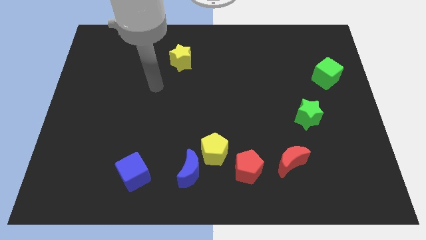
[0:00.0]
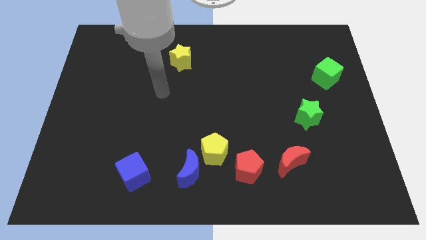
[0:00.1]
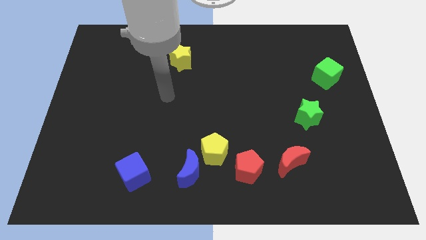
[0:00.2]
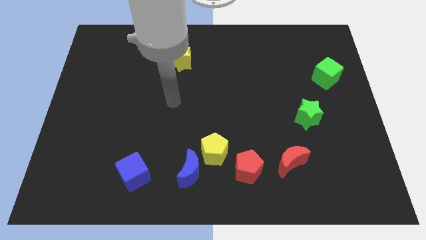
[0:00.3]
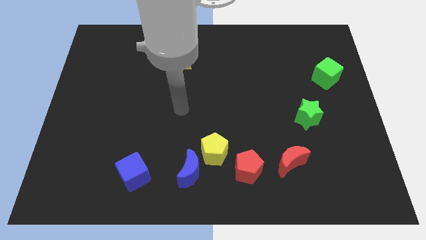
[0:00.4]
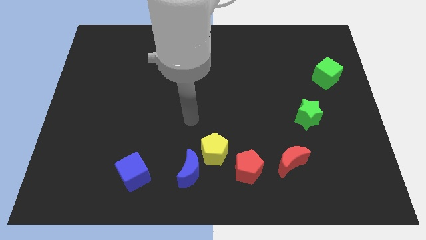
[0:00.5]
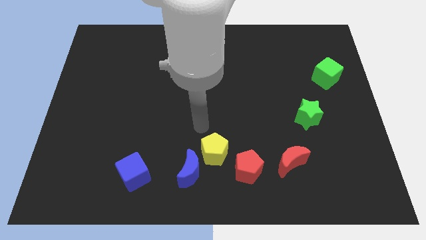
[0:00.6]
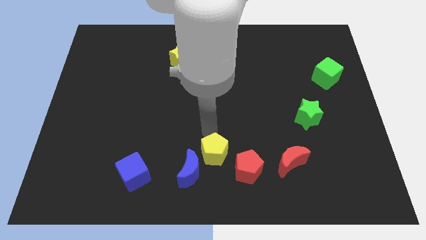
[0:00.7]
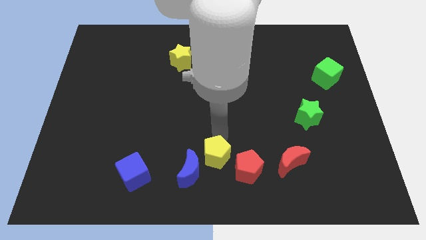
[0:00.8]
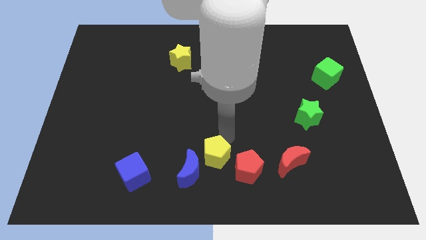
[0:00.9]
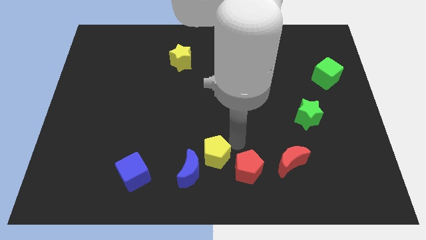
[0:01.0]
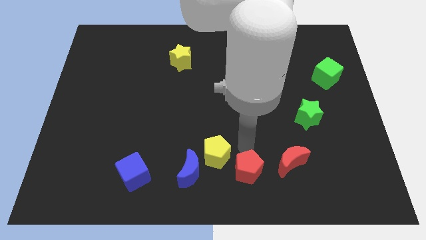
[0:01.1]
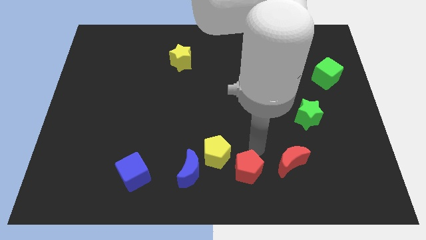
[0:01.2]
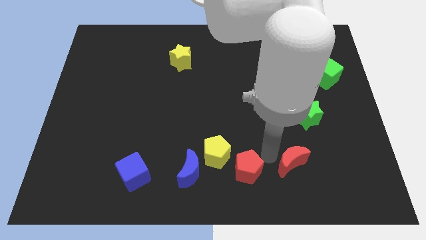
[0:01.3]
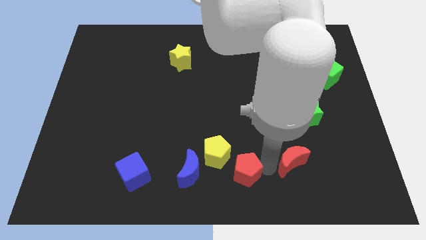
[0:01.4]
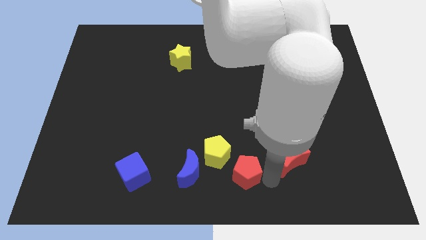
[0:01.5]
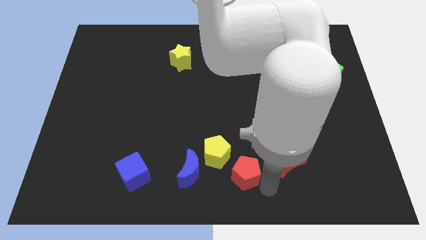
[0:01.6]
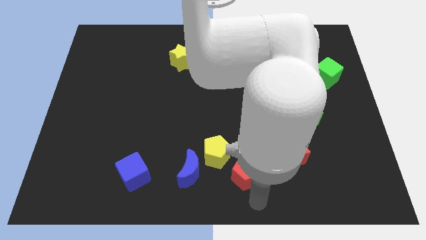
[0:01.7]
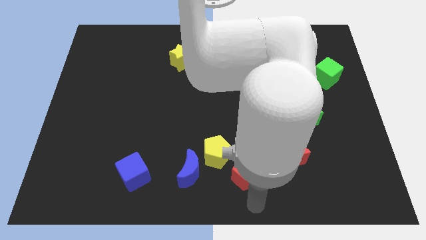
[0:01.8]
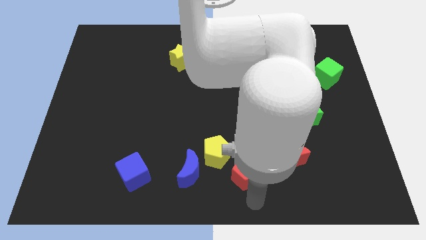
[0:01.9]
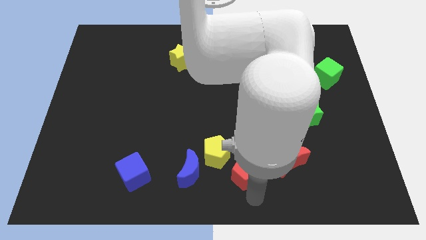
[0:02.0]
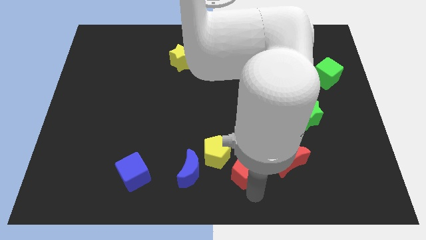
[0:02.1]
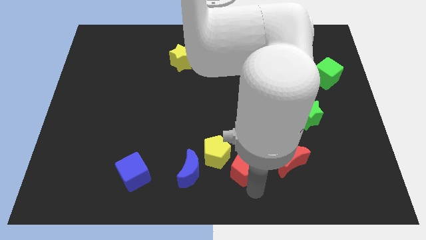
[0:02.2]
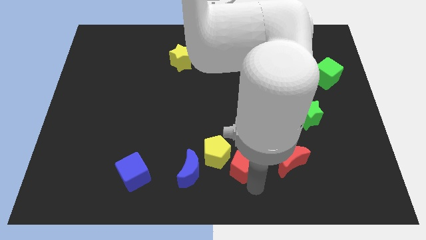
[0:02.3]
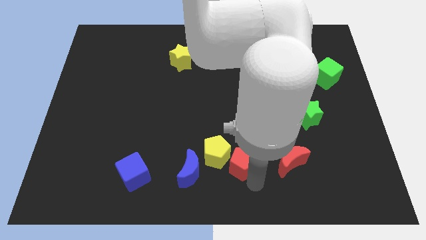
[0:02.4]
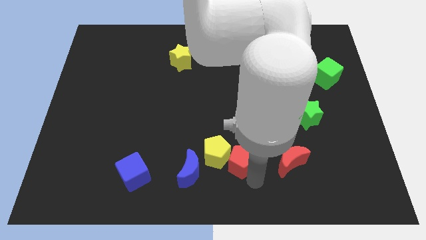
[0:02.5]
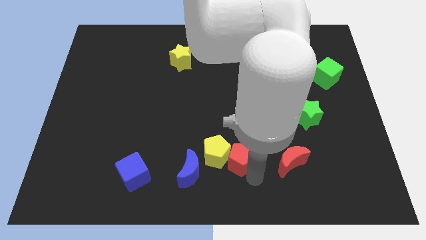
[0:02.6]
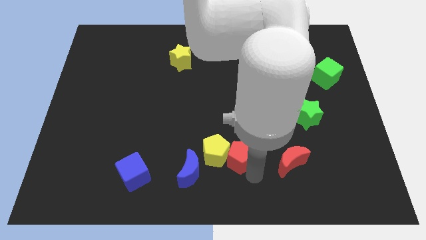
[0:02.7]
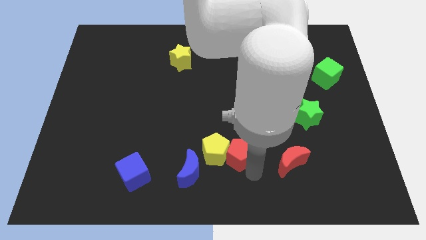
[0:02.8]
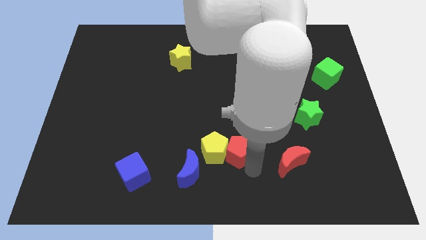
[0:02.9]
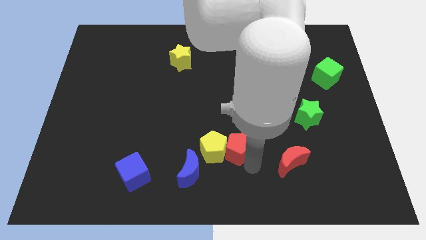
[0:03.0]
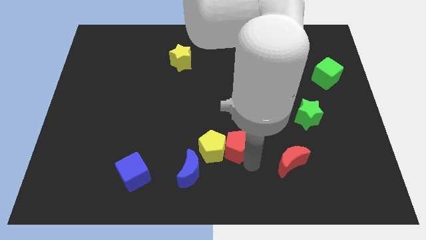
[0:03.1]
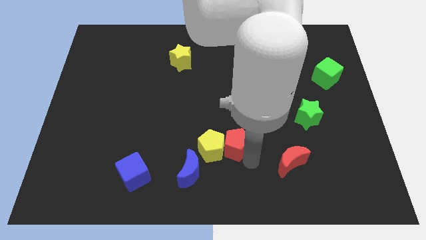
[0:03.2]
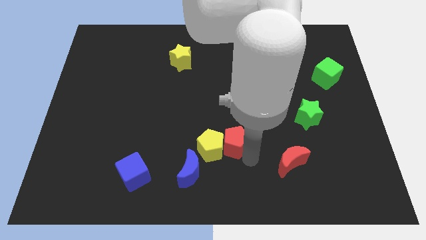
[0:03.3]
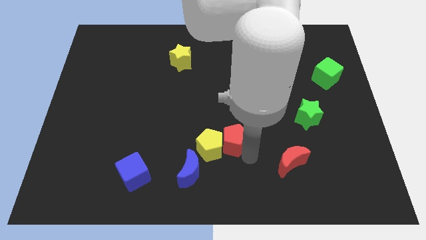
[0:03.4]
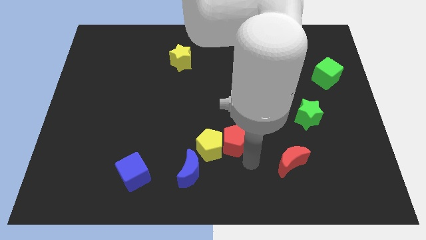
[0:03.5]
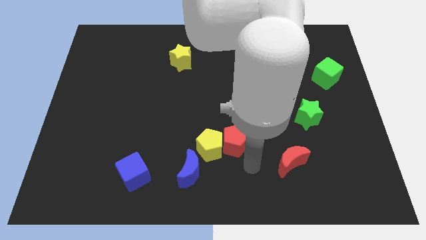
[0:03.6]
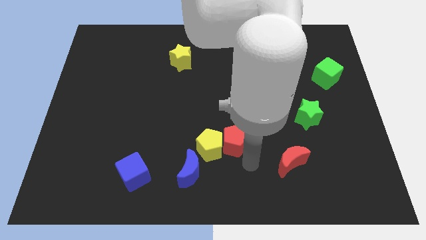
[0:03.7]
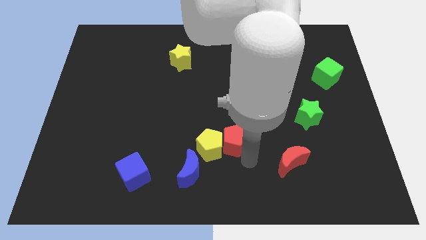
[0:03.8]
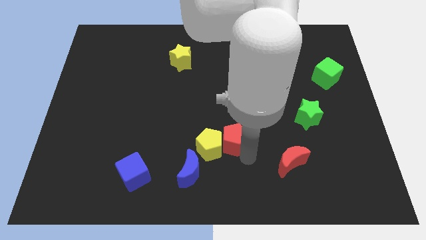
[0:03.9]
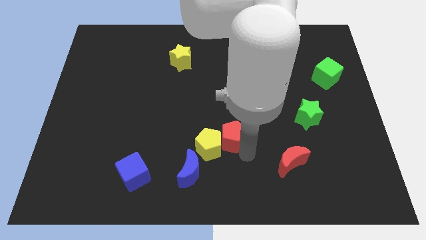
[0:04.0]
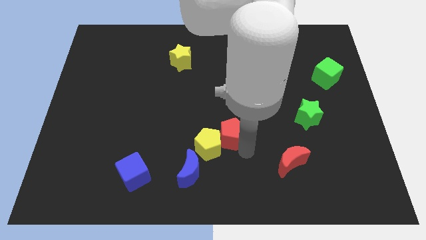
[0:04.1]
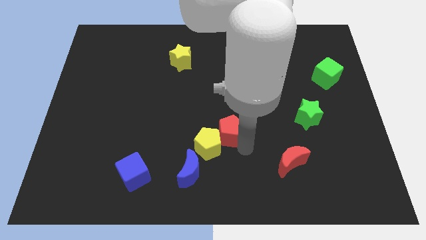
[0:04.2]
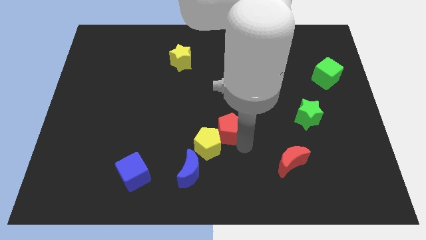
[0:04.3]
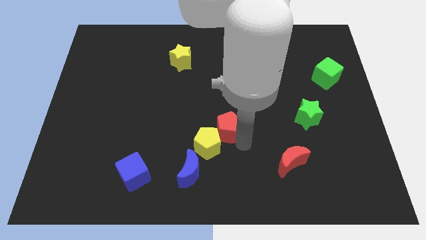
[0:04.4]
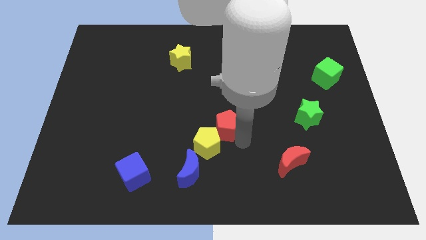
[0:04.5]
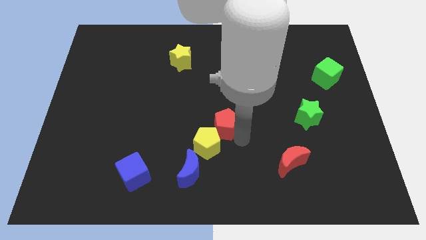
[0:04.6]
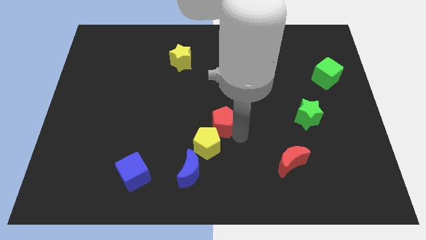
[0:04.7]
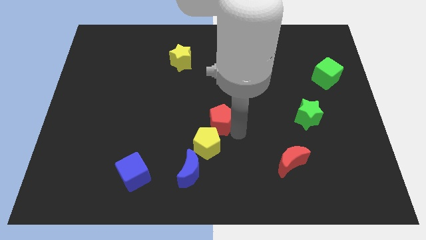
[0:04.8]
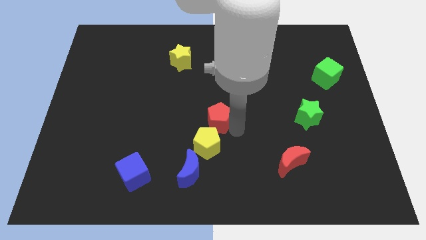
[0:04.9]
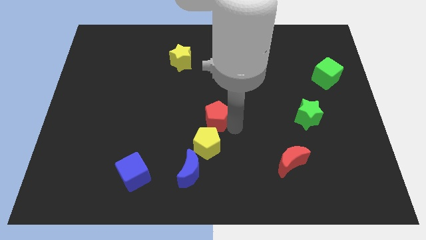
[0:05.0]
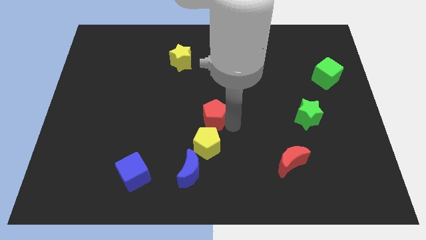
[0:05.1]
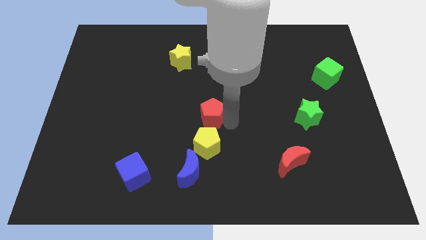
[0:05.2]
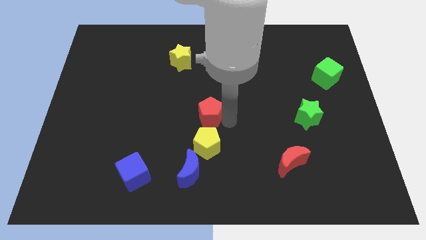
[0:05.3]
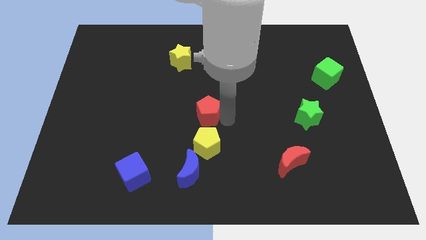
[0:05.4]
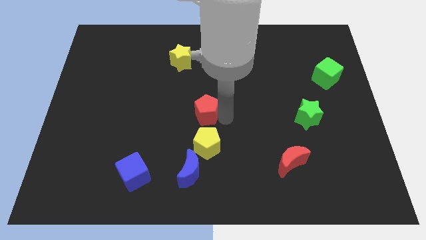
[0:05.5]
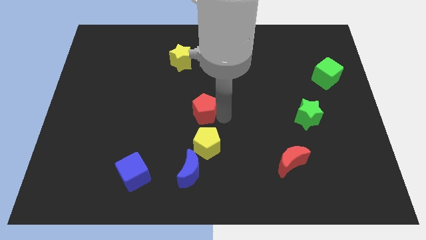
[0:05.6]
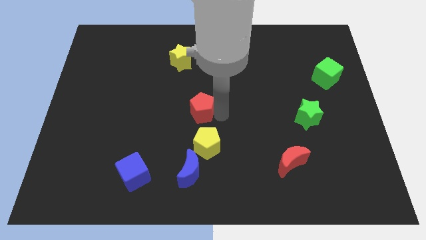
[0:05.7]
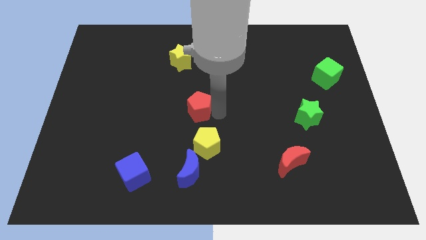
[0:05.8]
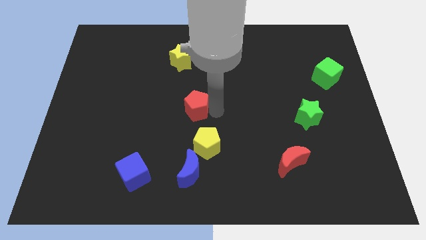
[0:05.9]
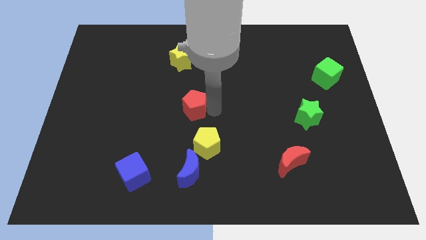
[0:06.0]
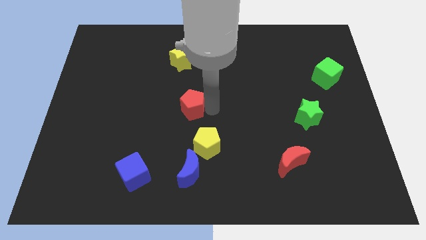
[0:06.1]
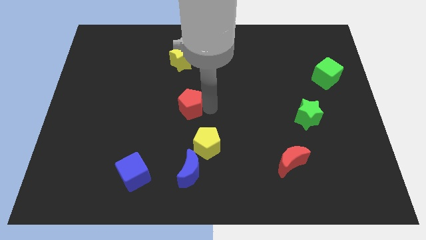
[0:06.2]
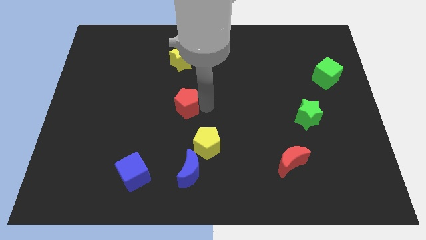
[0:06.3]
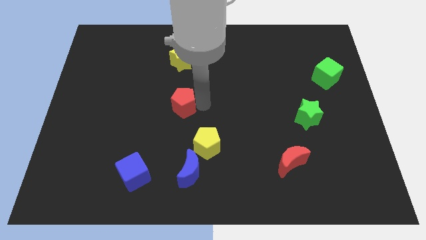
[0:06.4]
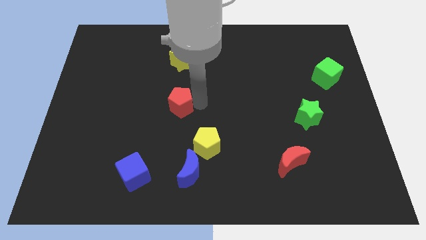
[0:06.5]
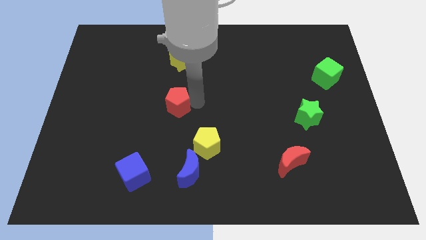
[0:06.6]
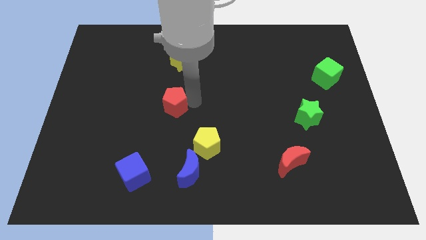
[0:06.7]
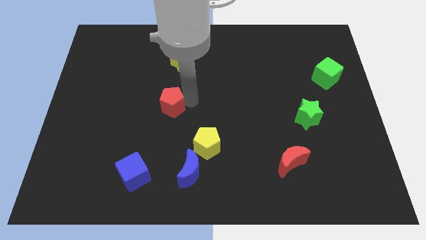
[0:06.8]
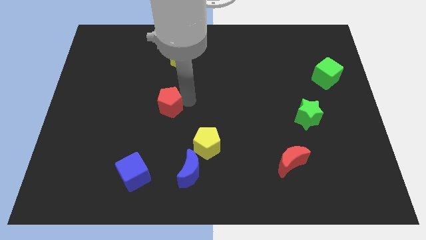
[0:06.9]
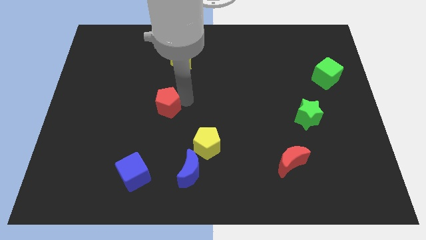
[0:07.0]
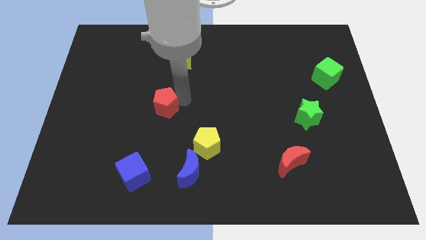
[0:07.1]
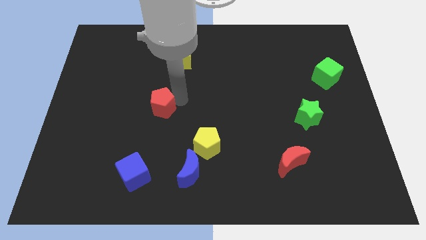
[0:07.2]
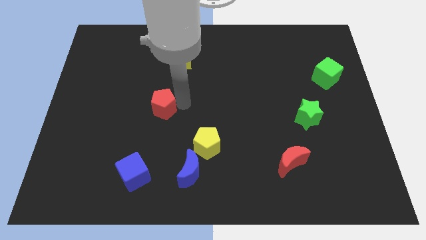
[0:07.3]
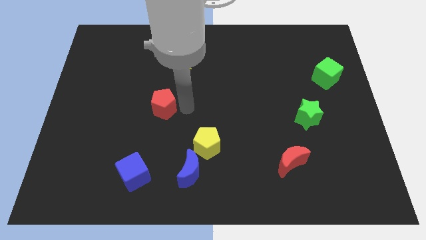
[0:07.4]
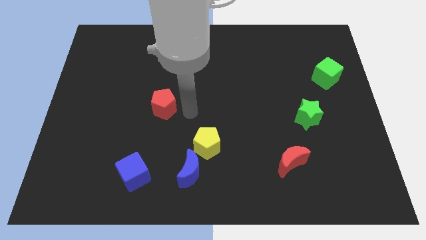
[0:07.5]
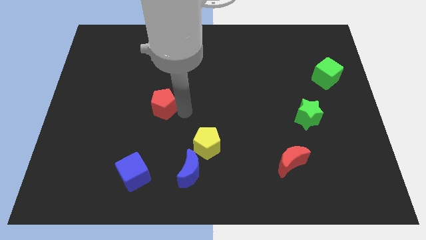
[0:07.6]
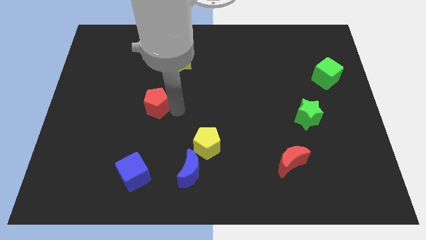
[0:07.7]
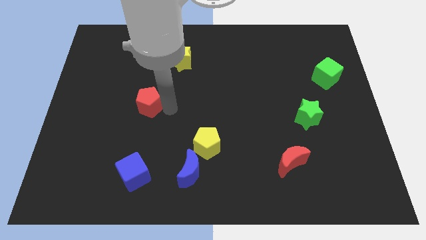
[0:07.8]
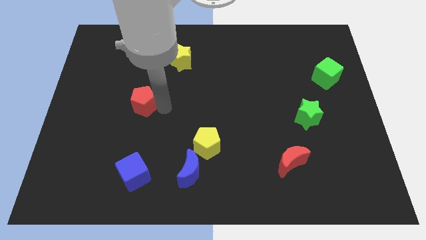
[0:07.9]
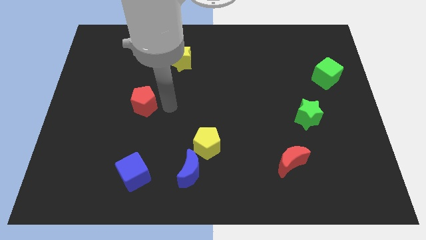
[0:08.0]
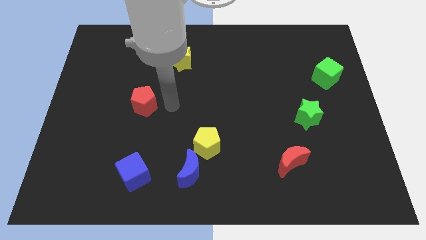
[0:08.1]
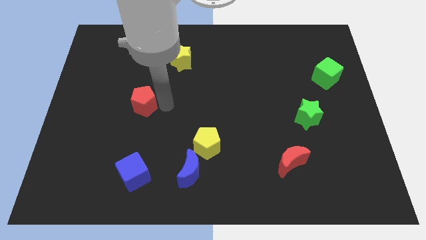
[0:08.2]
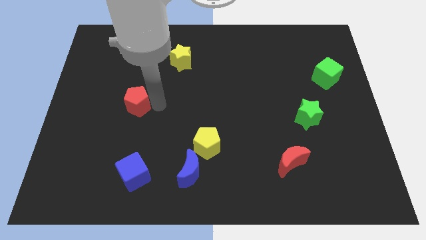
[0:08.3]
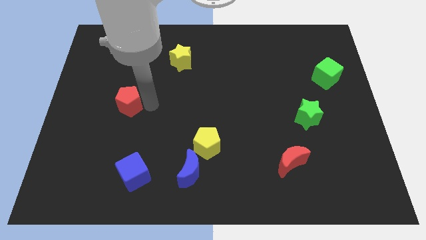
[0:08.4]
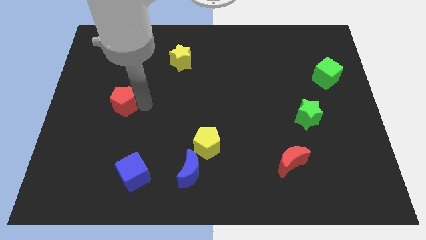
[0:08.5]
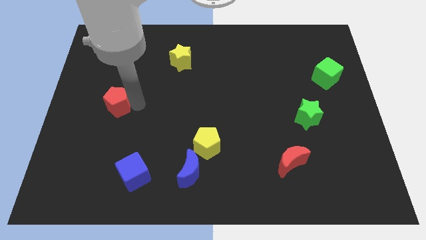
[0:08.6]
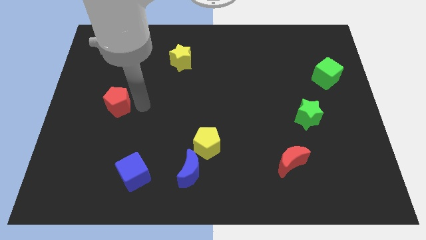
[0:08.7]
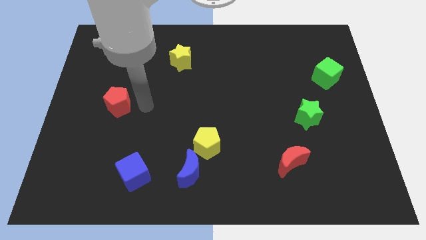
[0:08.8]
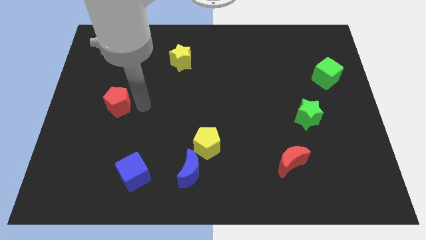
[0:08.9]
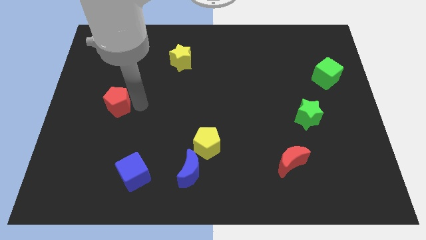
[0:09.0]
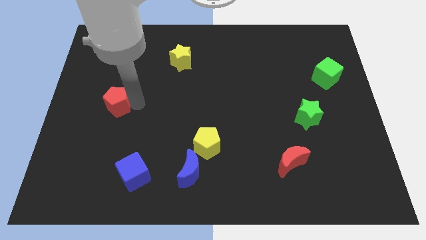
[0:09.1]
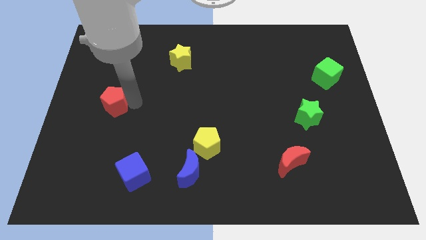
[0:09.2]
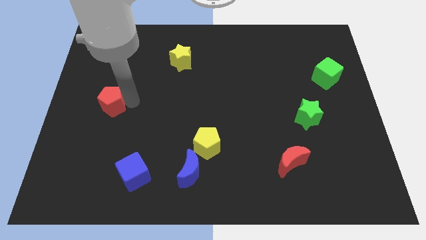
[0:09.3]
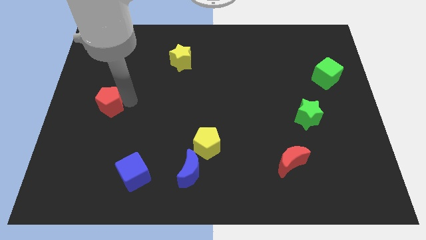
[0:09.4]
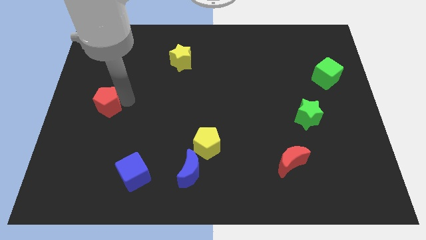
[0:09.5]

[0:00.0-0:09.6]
slide the red pentagon to the center left
